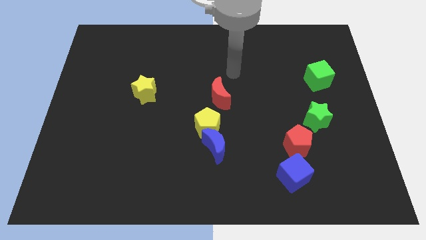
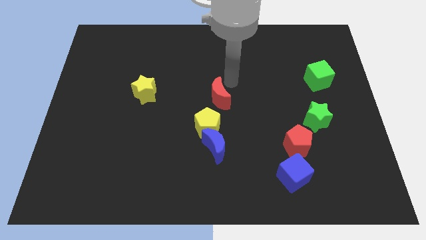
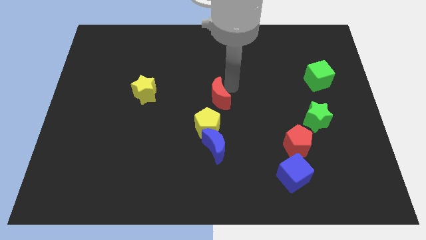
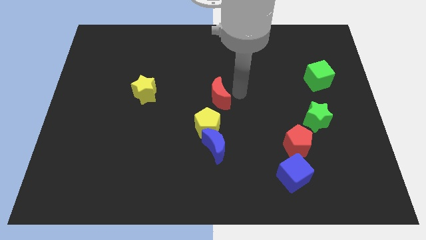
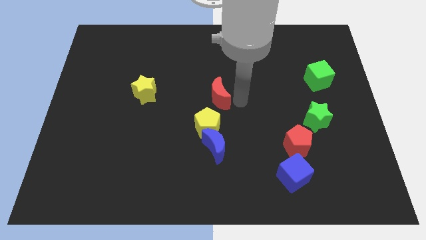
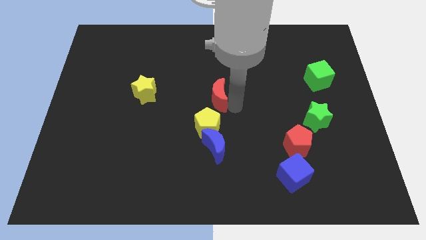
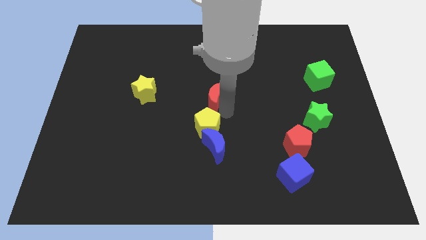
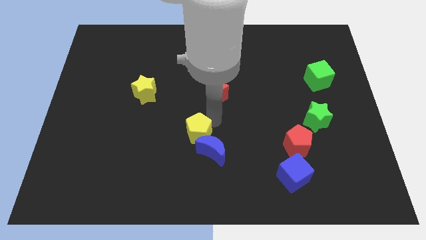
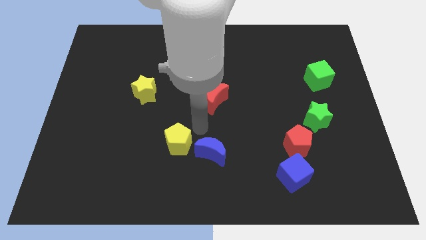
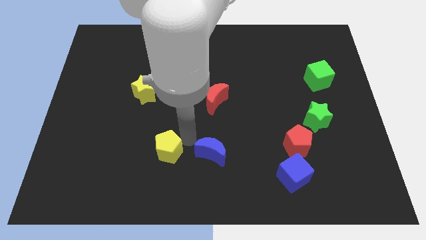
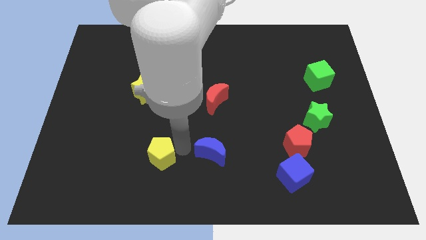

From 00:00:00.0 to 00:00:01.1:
pull the blue moon apart from the yellow pentagon

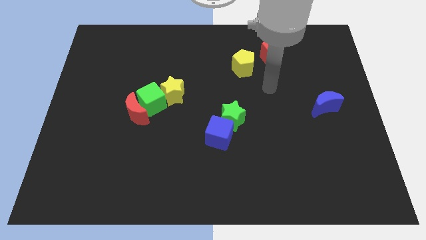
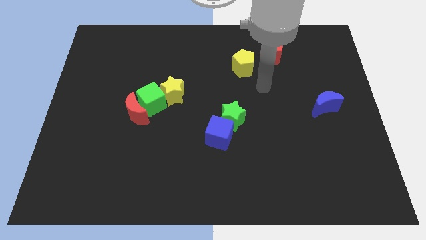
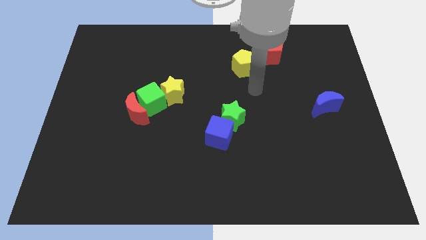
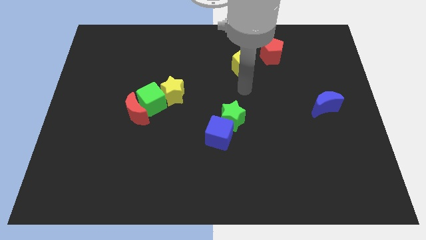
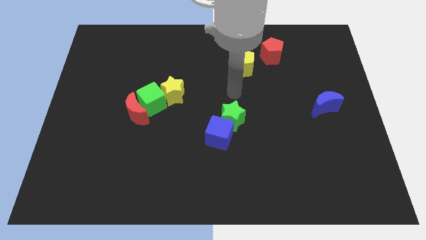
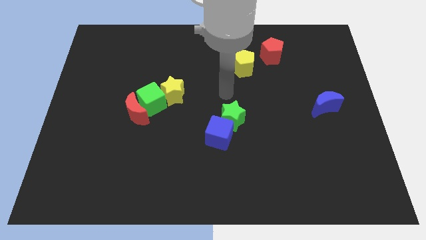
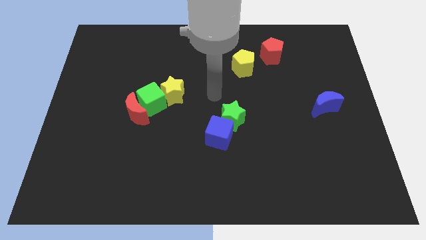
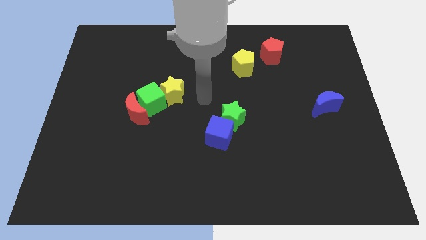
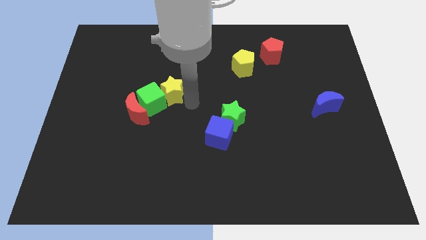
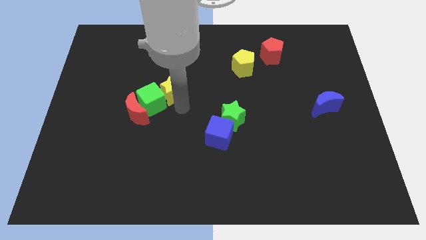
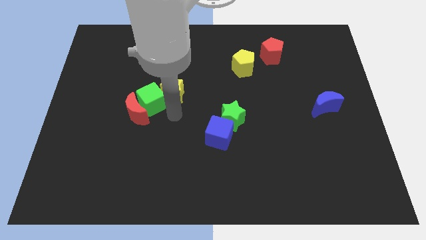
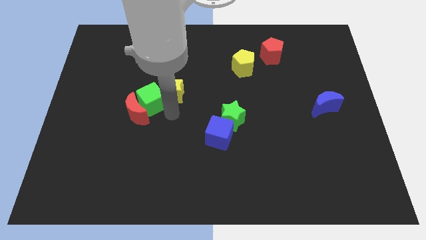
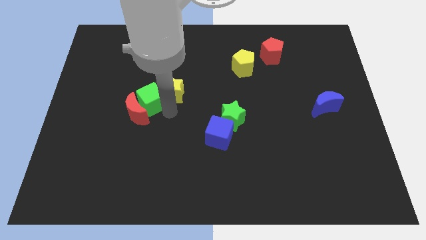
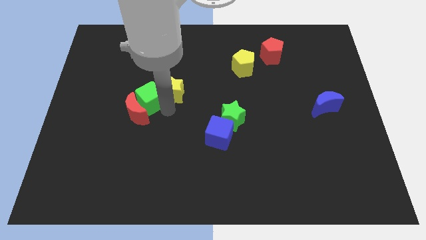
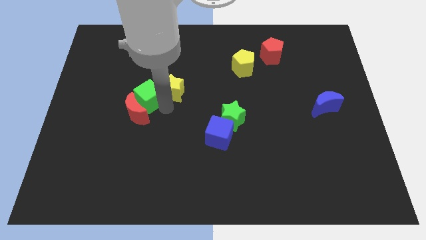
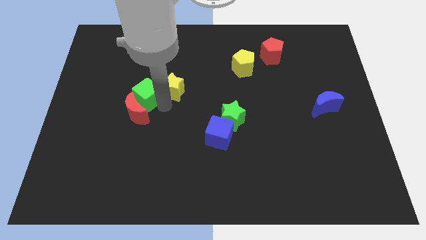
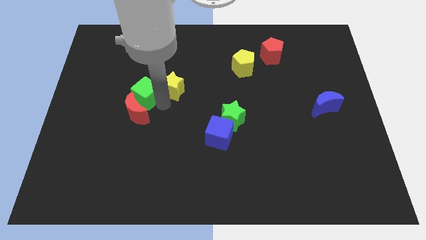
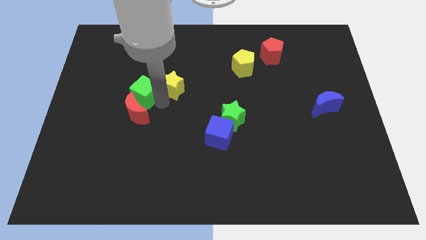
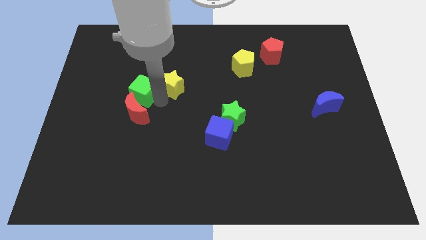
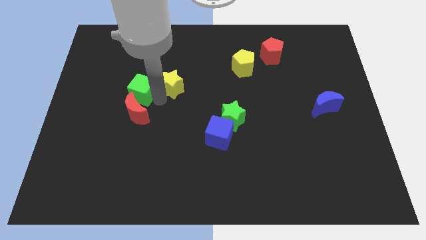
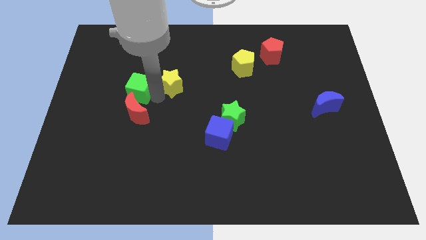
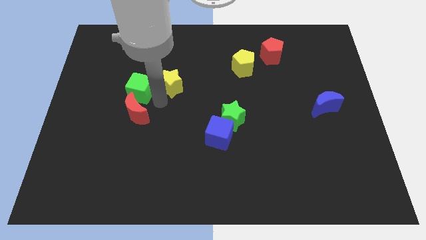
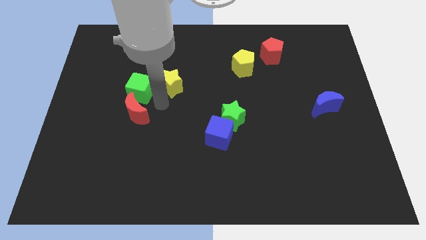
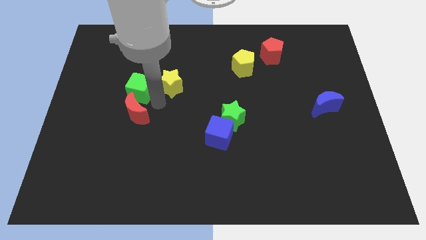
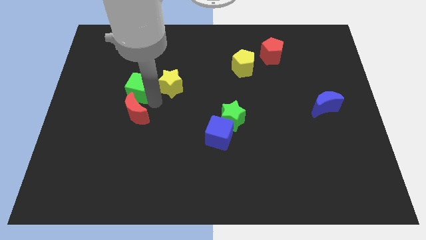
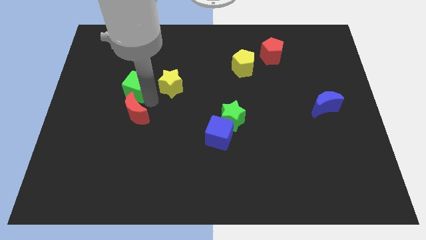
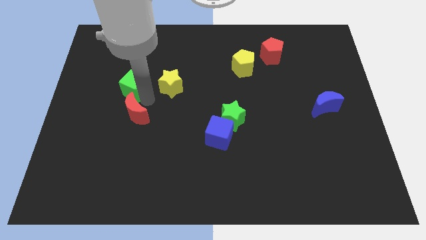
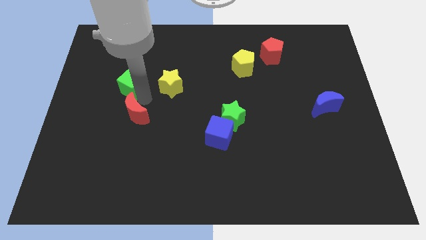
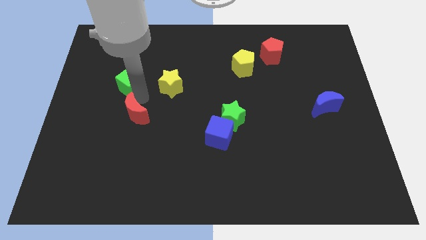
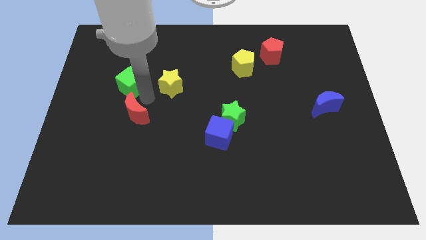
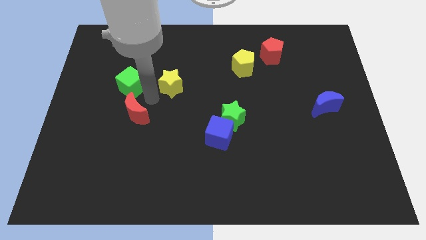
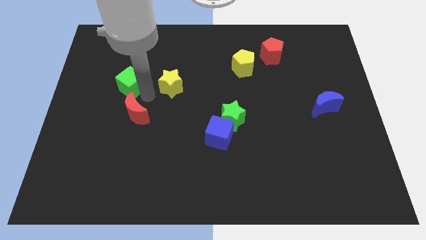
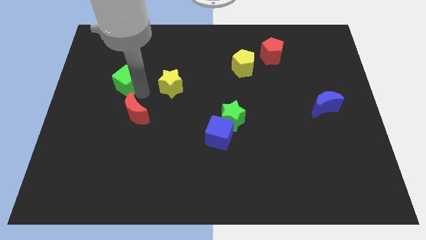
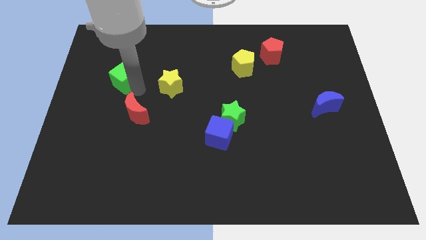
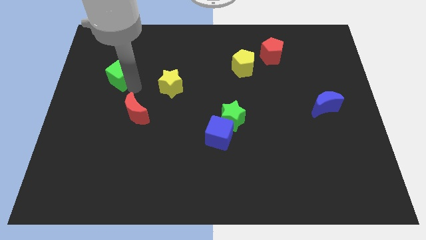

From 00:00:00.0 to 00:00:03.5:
separate the green cube from the red moon and yellow star

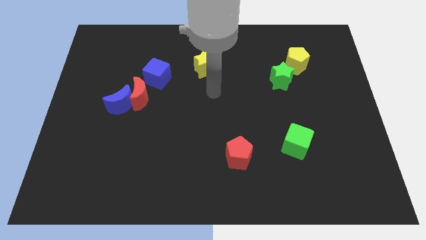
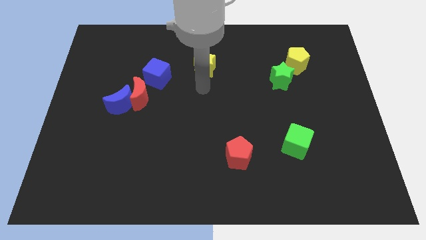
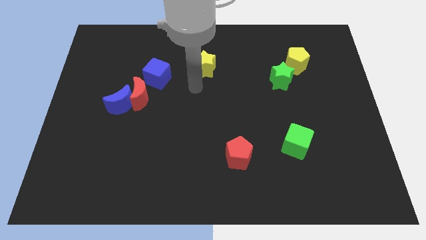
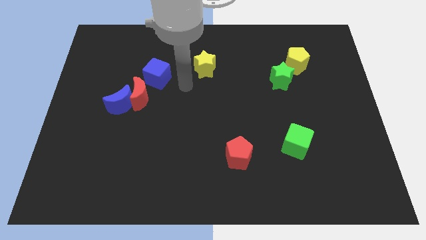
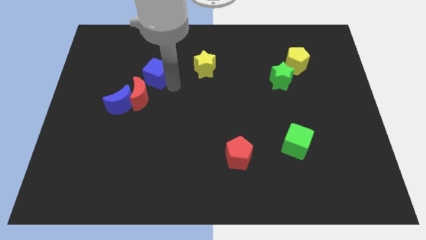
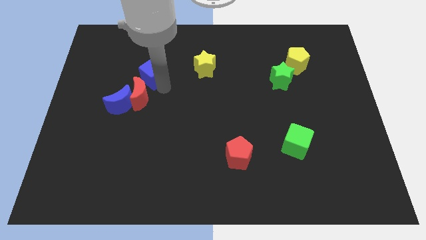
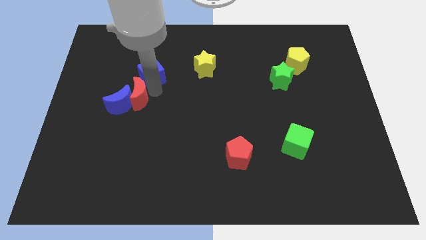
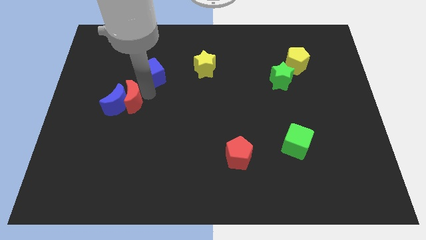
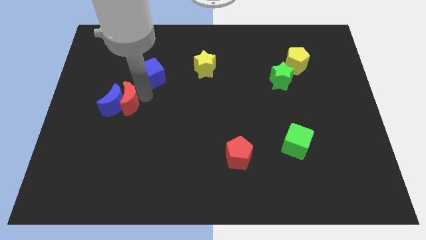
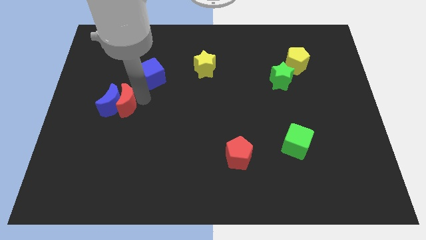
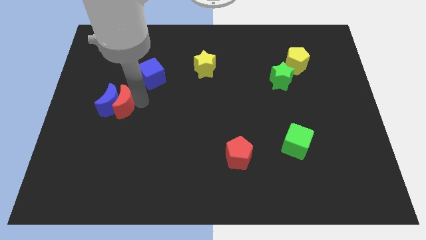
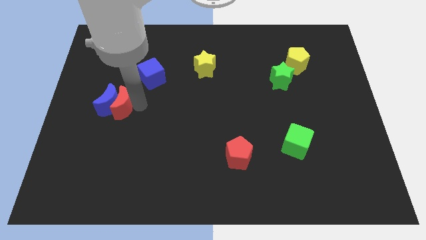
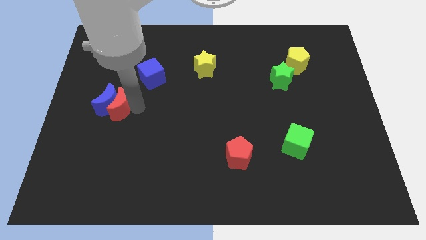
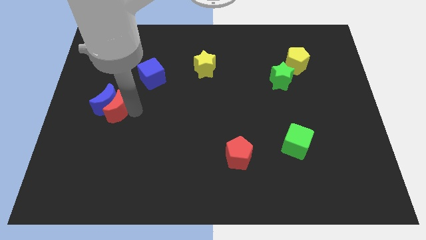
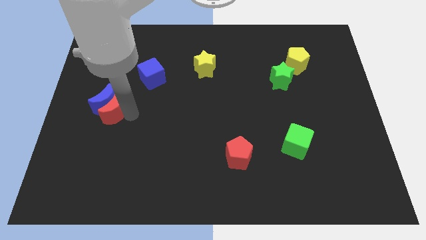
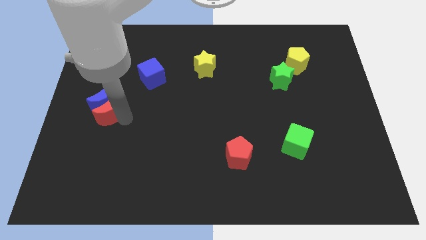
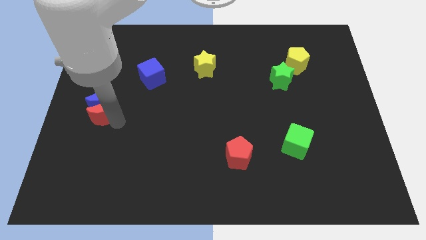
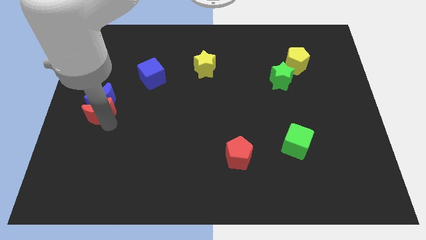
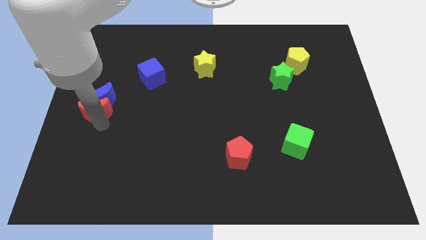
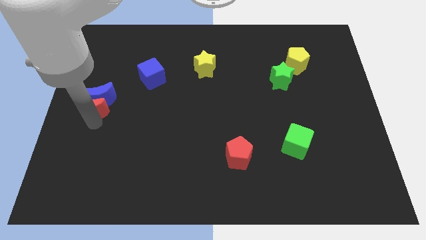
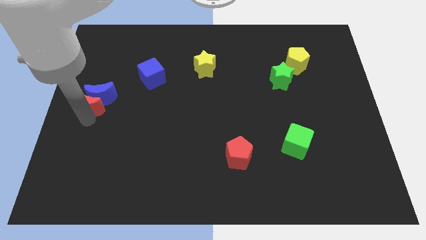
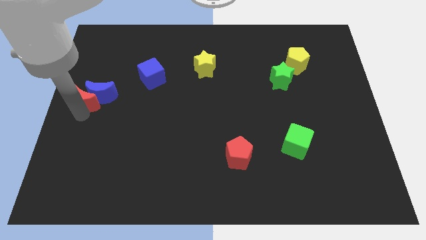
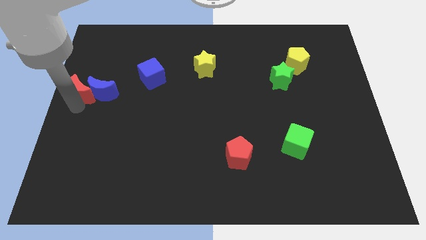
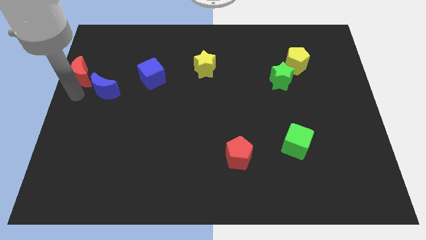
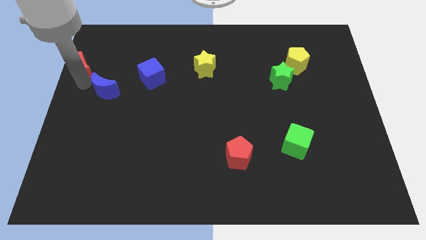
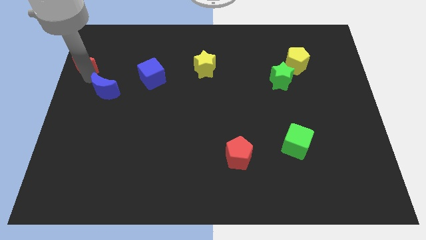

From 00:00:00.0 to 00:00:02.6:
pull the blue moon apart from the red moon

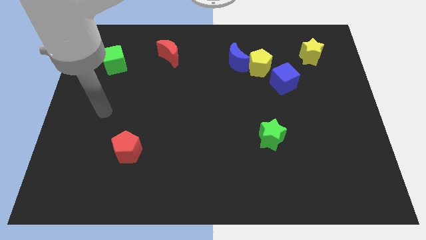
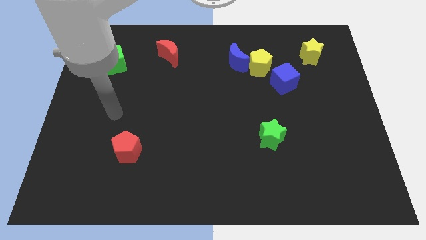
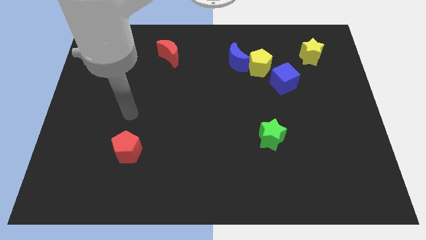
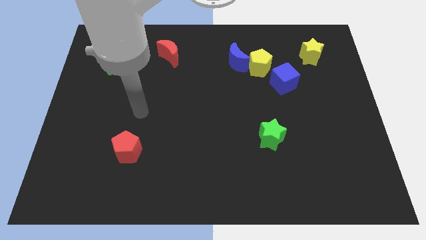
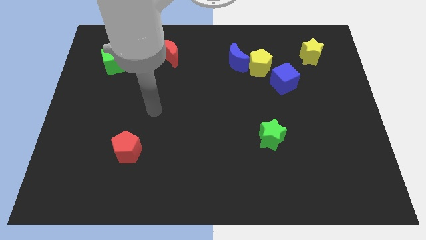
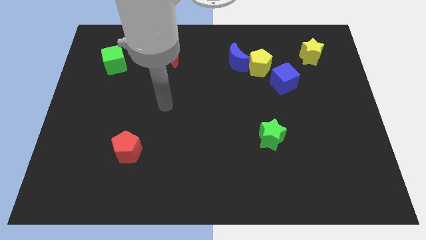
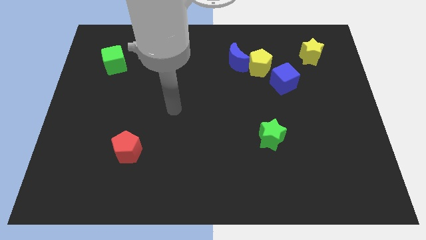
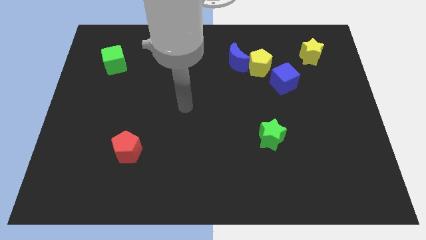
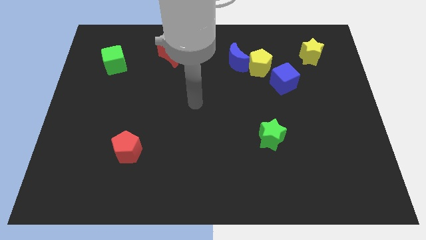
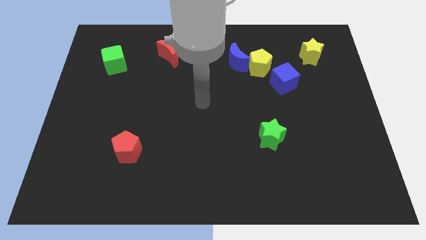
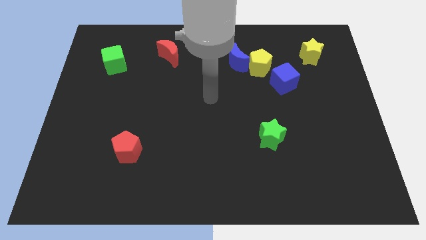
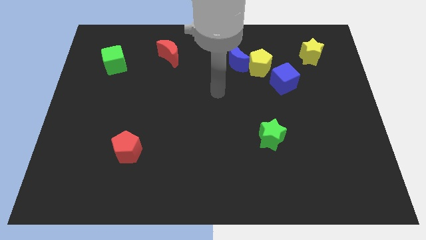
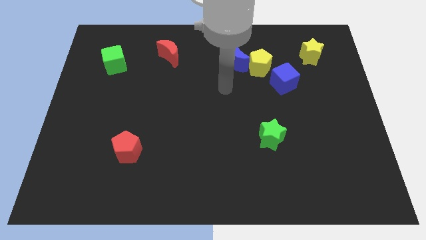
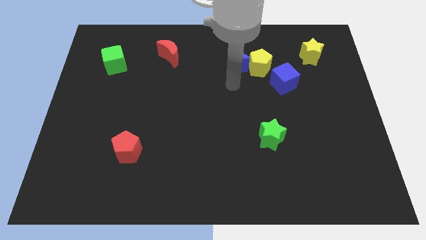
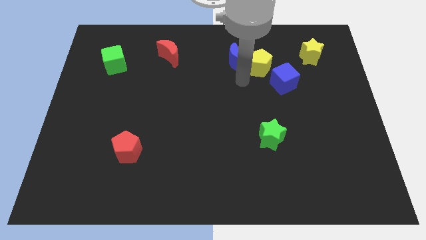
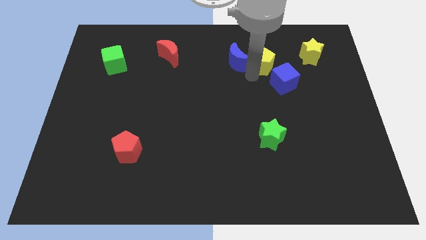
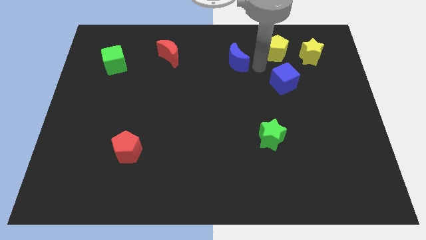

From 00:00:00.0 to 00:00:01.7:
move the blue moon away from the yellow pentagon

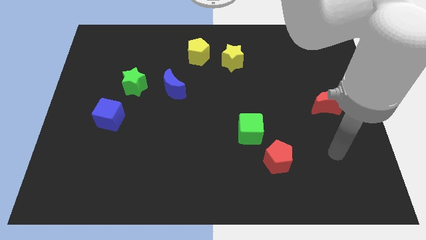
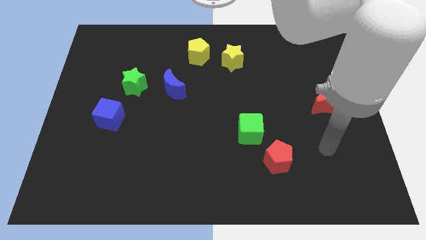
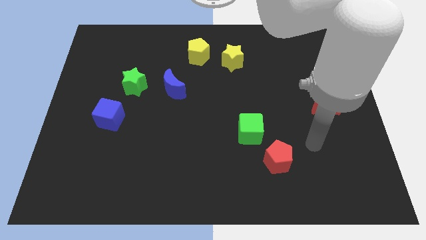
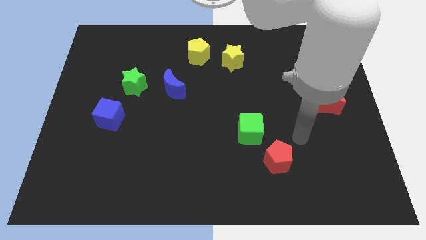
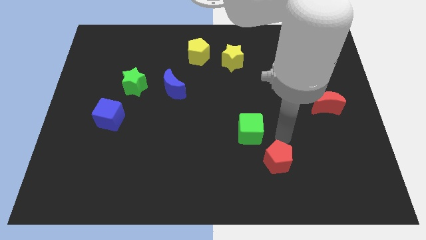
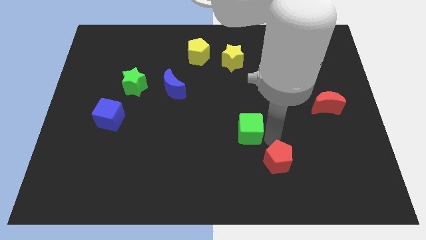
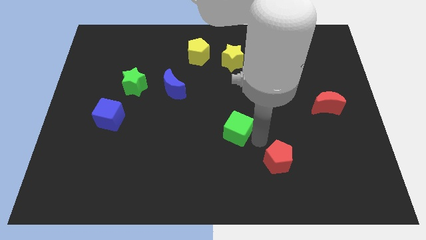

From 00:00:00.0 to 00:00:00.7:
separate the red pentagon from the green cube
